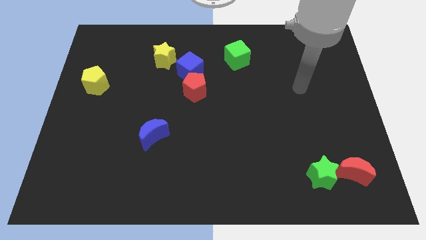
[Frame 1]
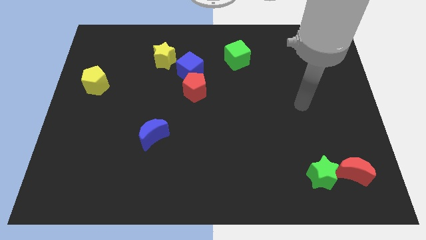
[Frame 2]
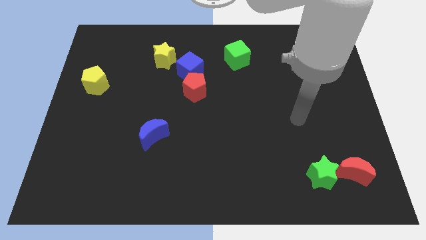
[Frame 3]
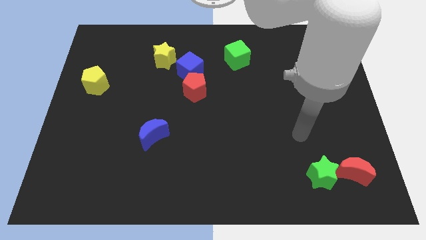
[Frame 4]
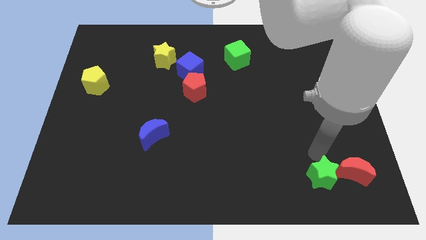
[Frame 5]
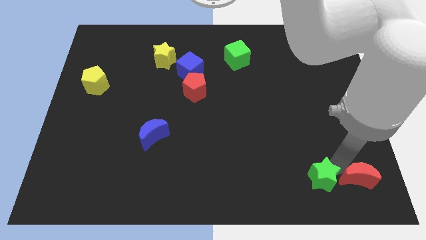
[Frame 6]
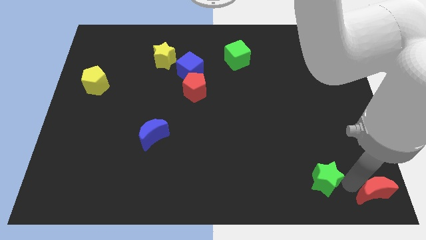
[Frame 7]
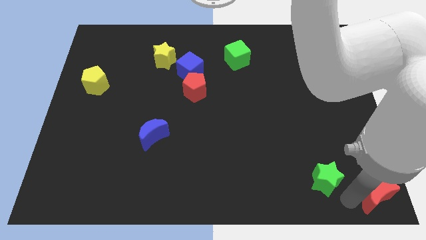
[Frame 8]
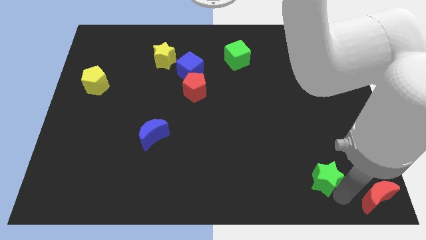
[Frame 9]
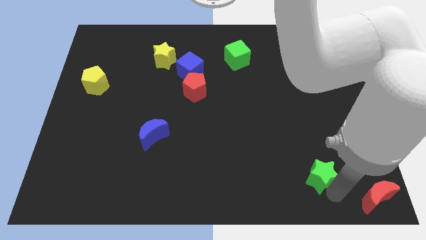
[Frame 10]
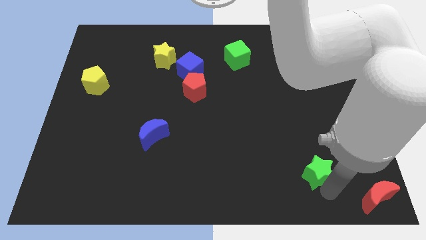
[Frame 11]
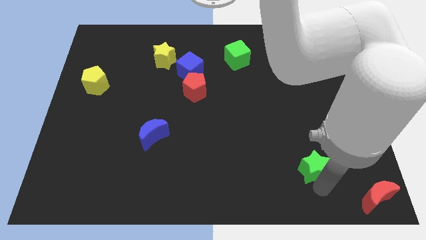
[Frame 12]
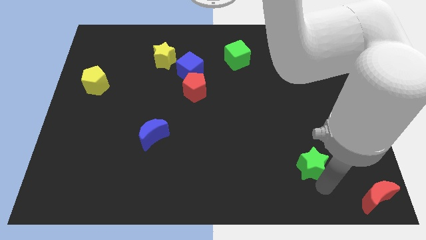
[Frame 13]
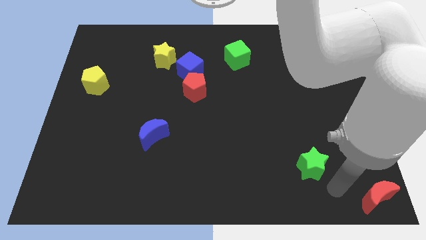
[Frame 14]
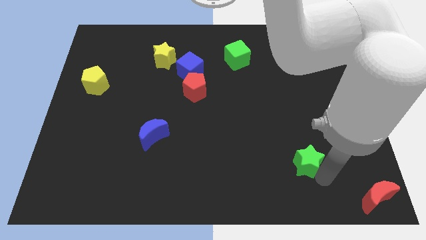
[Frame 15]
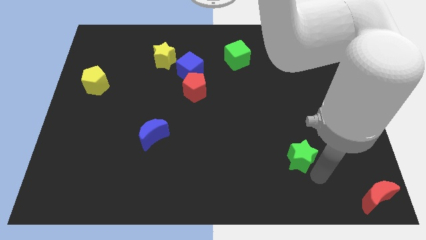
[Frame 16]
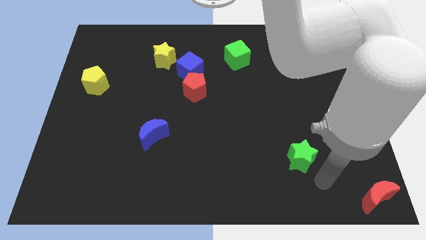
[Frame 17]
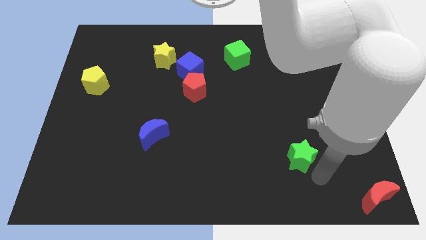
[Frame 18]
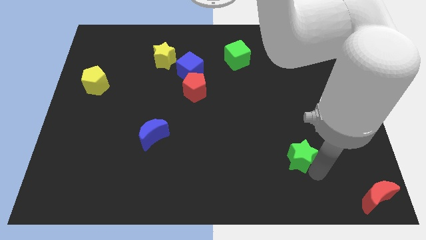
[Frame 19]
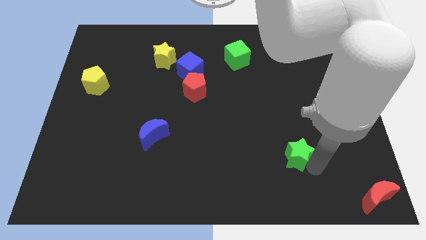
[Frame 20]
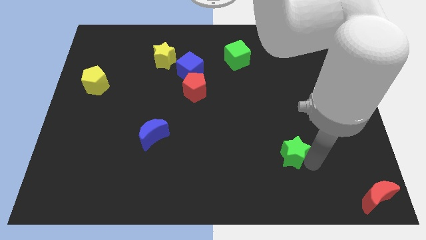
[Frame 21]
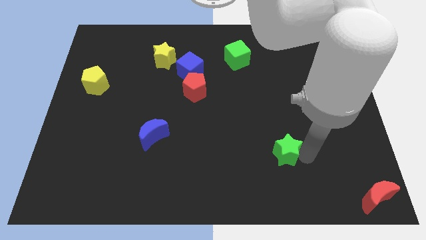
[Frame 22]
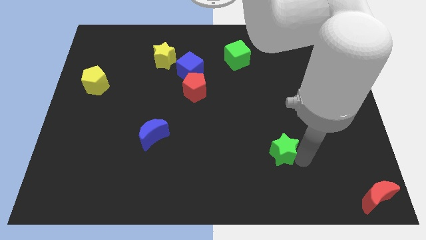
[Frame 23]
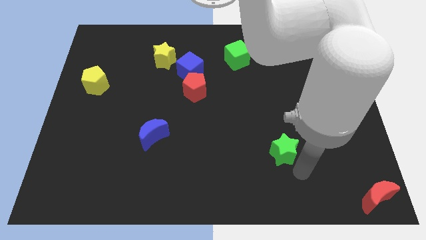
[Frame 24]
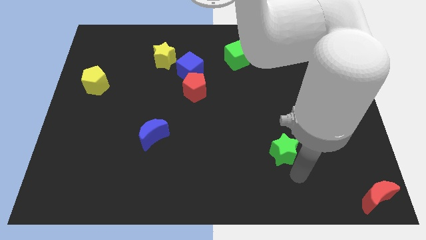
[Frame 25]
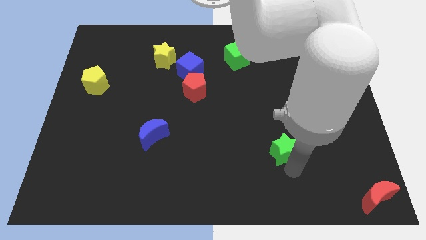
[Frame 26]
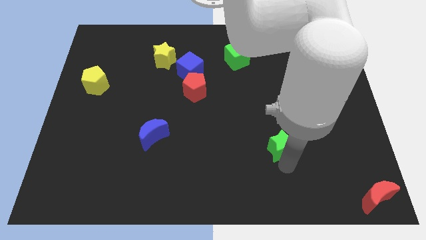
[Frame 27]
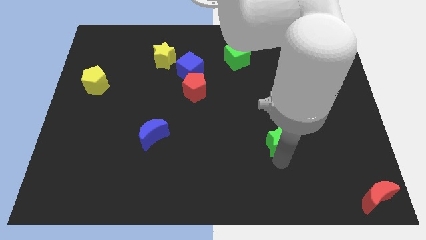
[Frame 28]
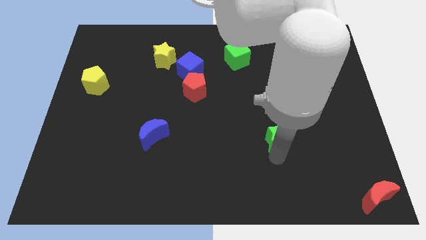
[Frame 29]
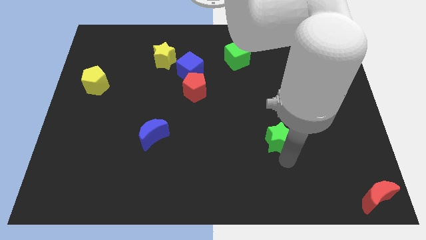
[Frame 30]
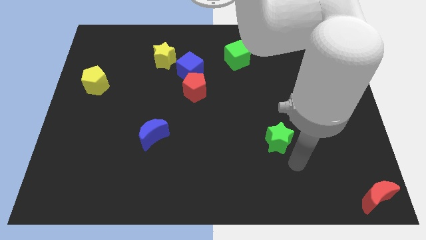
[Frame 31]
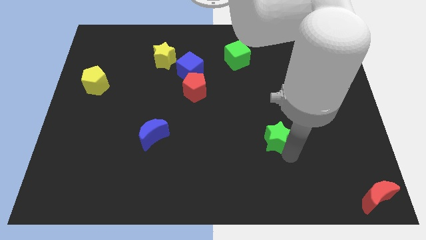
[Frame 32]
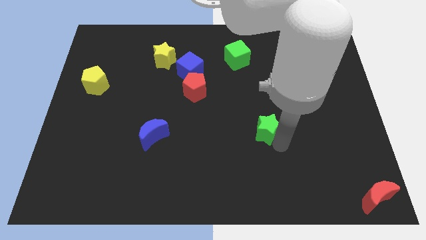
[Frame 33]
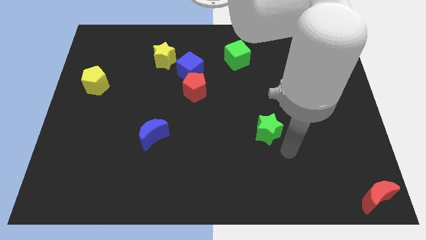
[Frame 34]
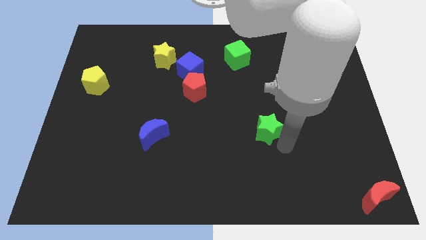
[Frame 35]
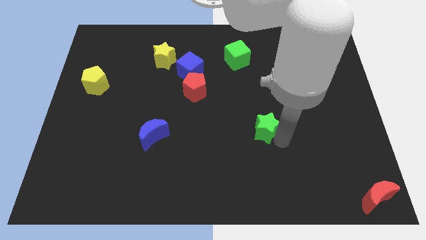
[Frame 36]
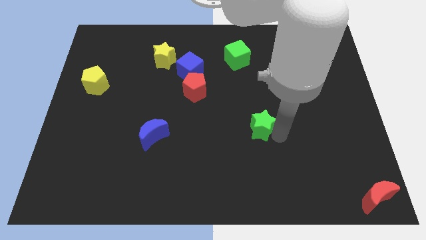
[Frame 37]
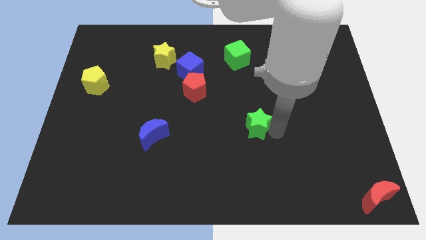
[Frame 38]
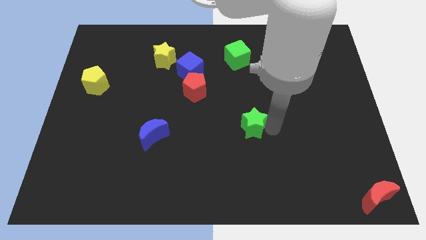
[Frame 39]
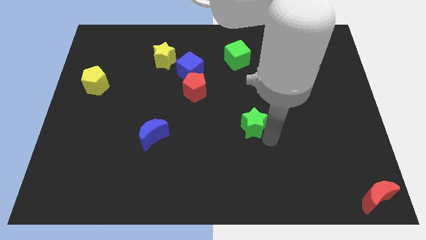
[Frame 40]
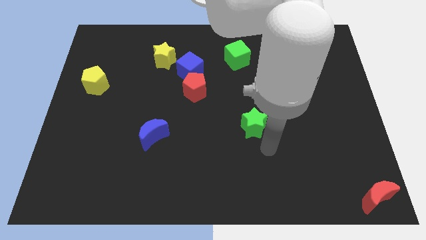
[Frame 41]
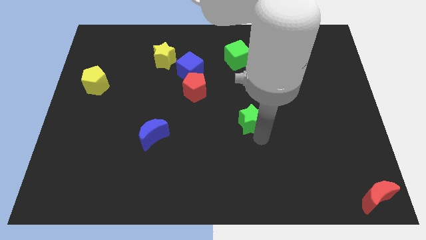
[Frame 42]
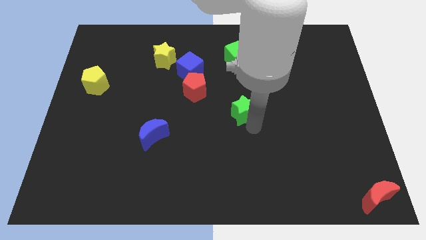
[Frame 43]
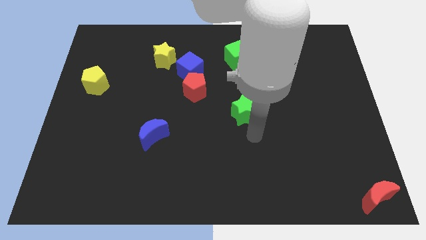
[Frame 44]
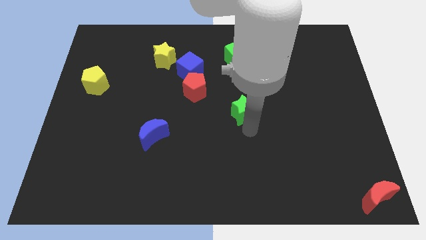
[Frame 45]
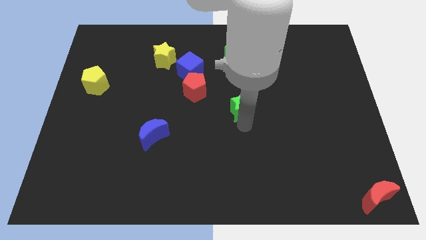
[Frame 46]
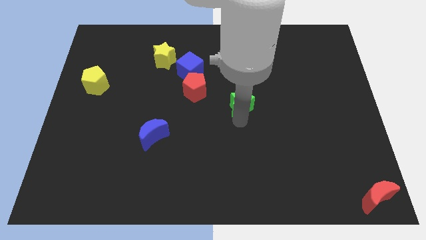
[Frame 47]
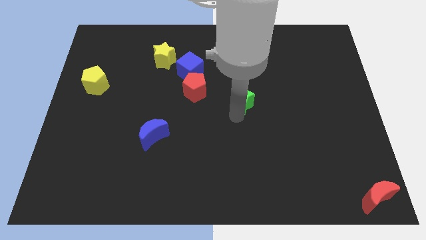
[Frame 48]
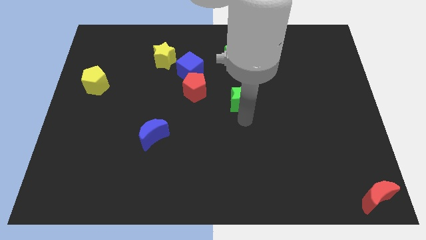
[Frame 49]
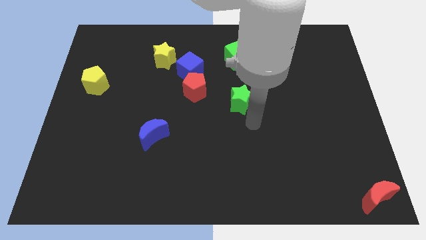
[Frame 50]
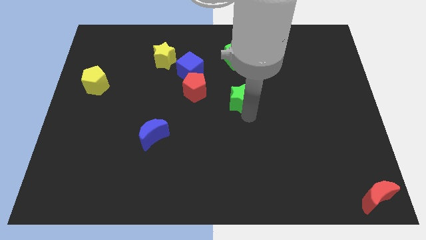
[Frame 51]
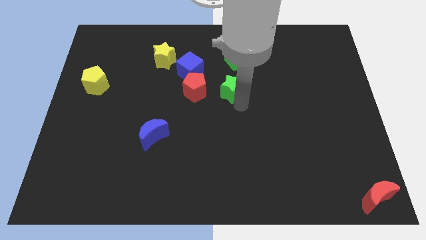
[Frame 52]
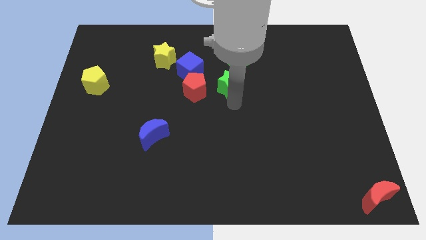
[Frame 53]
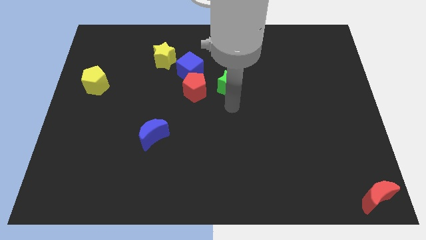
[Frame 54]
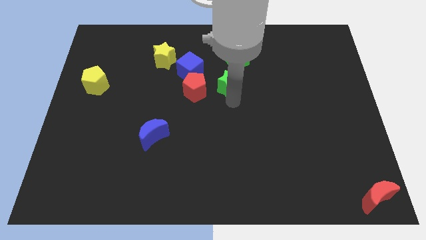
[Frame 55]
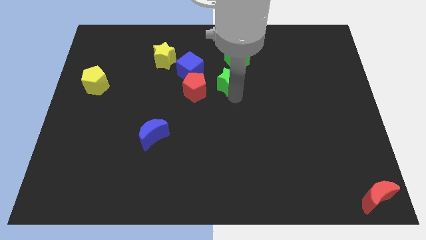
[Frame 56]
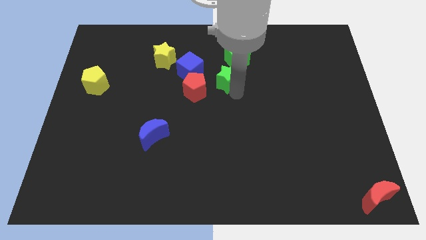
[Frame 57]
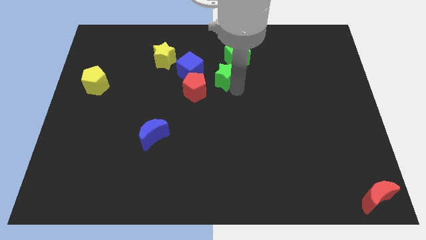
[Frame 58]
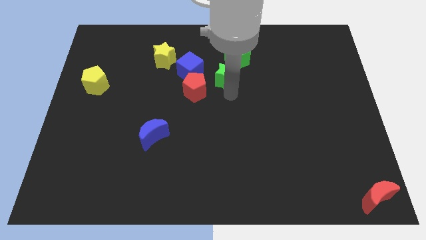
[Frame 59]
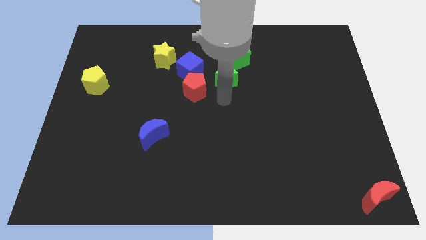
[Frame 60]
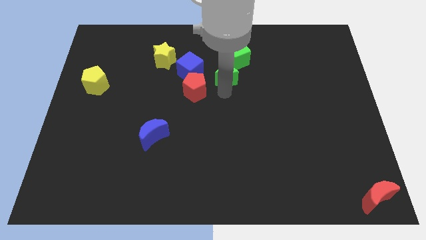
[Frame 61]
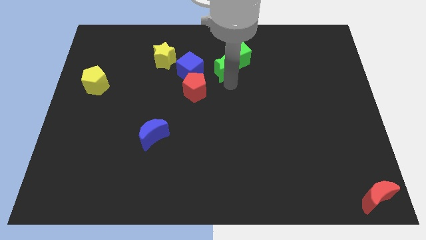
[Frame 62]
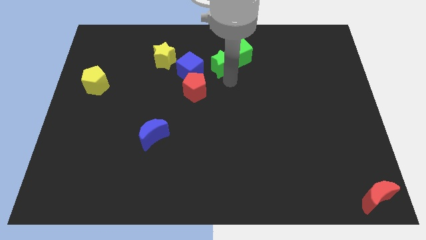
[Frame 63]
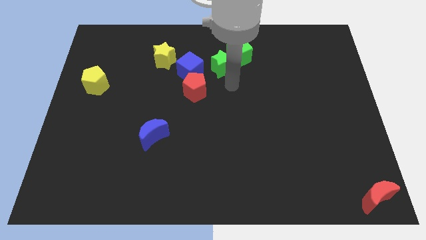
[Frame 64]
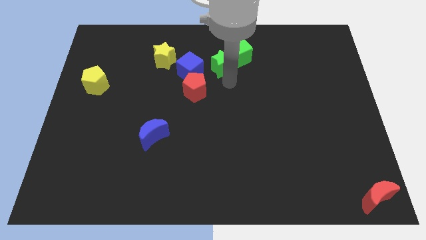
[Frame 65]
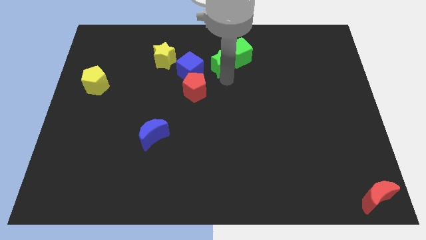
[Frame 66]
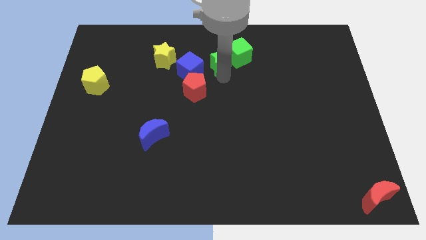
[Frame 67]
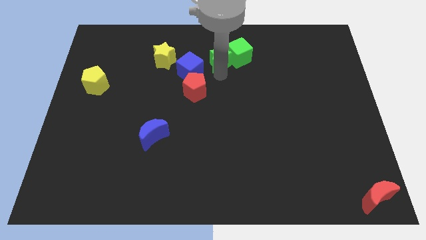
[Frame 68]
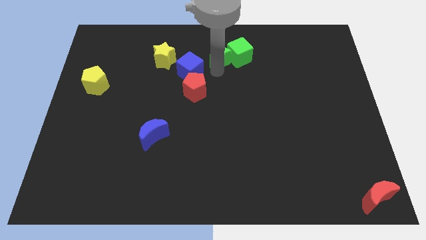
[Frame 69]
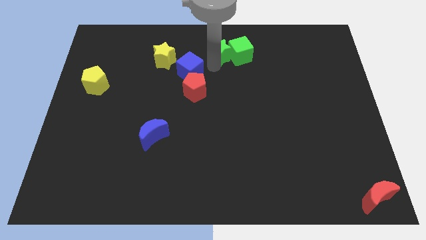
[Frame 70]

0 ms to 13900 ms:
push the green star to the top
